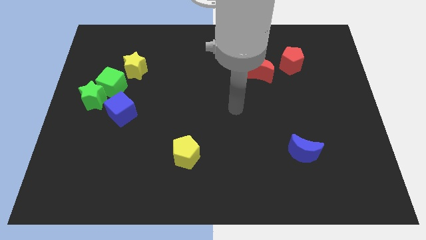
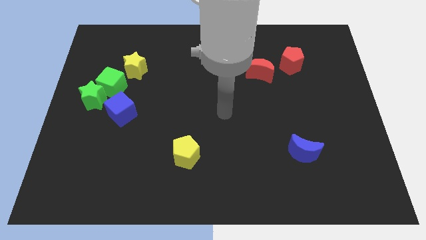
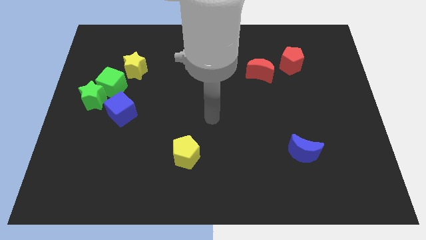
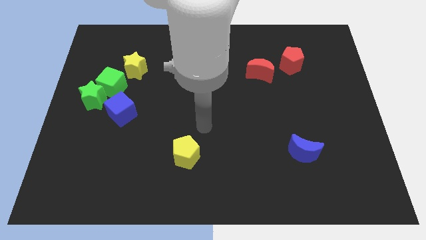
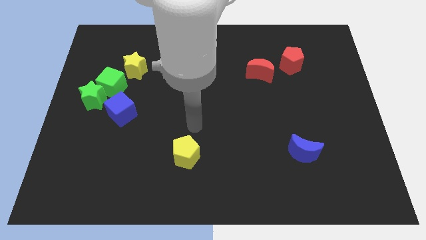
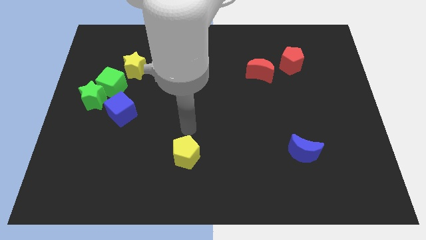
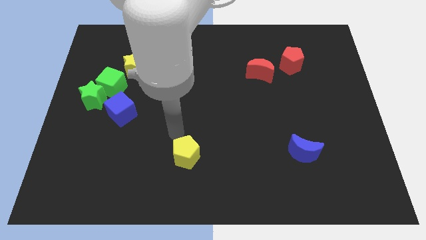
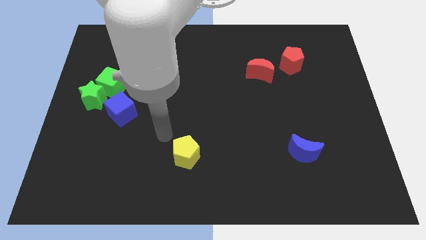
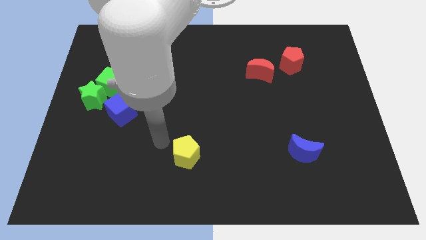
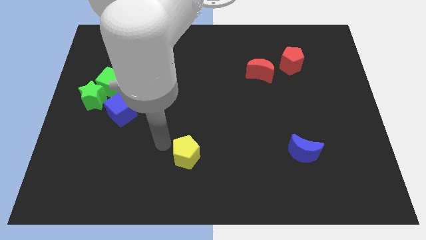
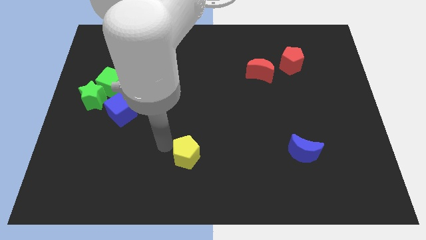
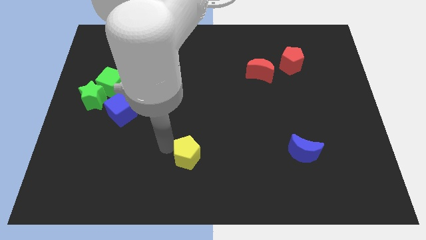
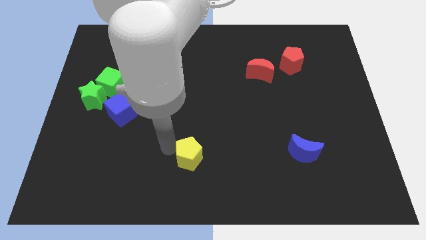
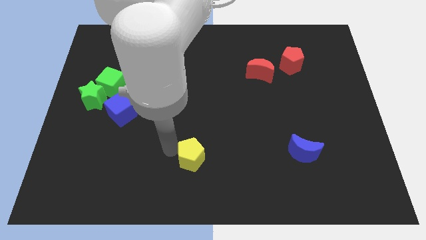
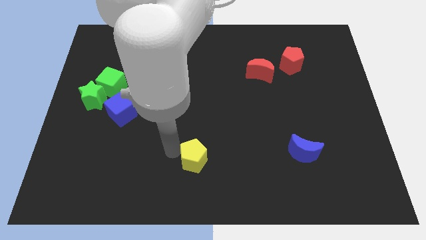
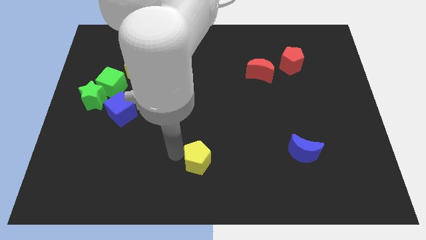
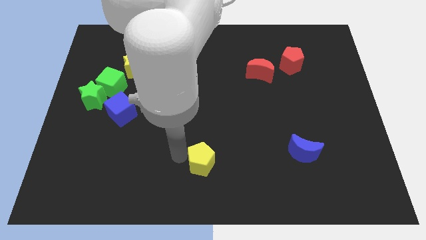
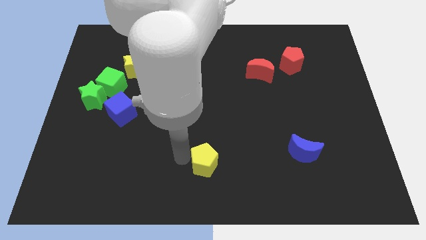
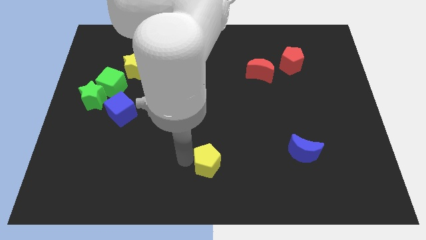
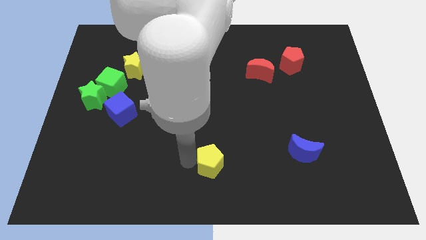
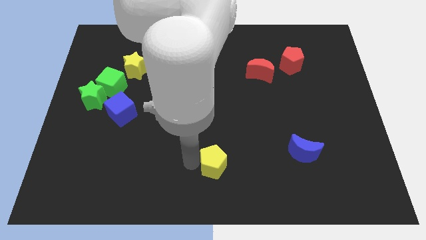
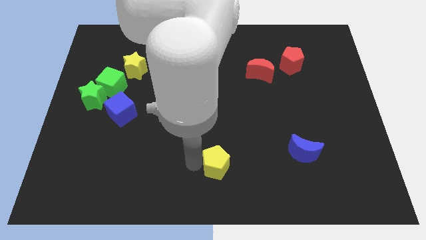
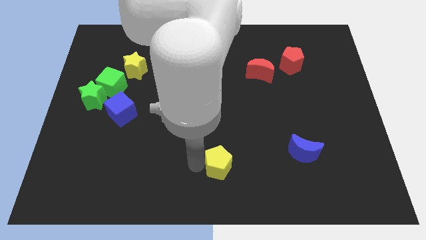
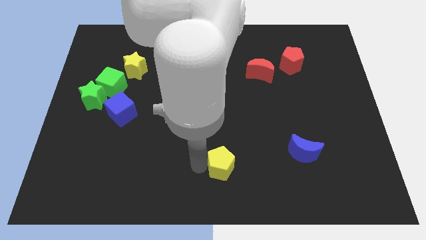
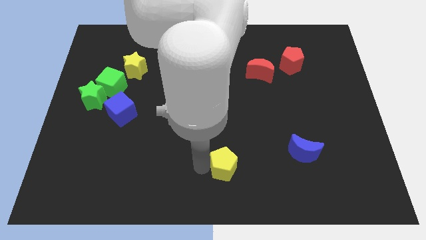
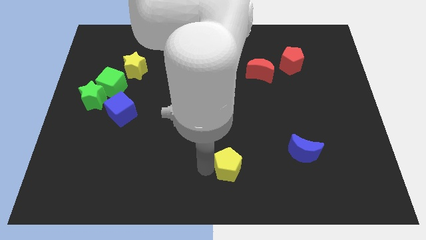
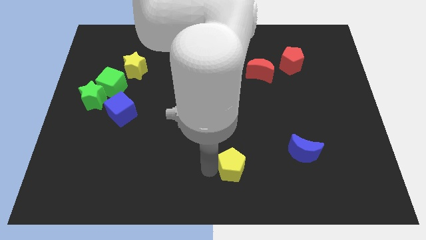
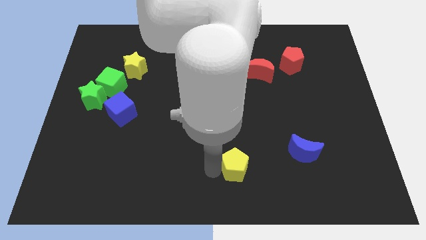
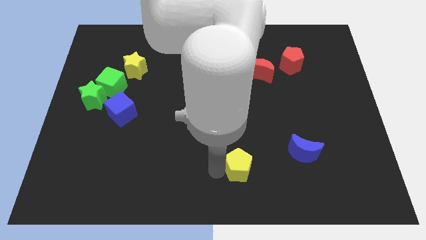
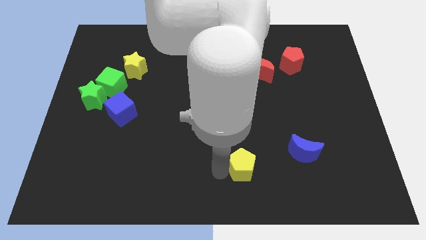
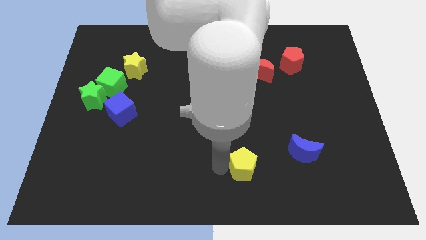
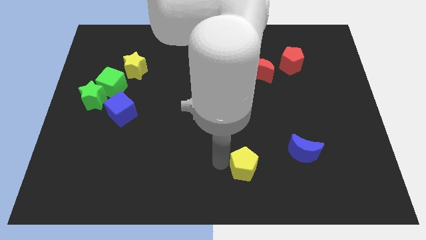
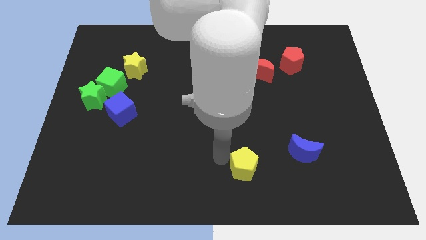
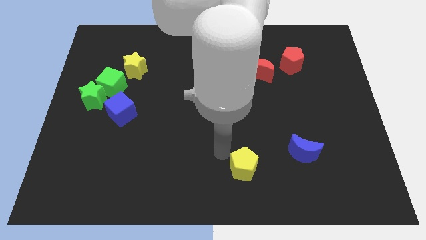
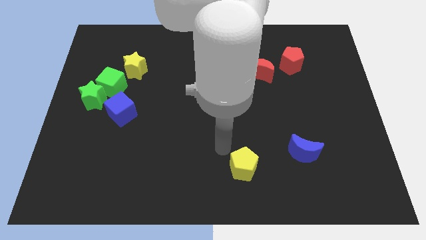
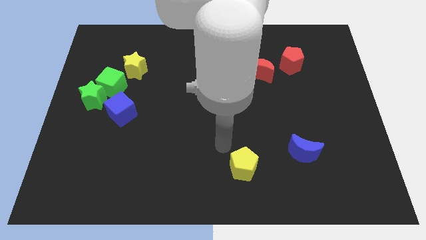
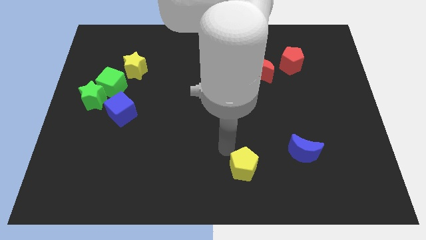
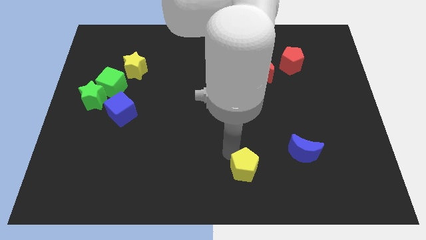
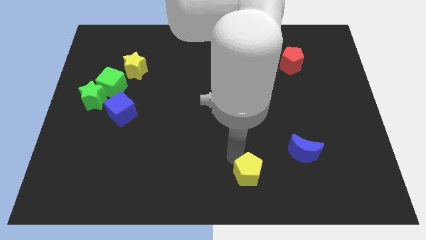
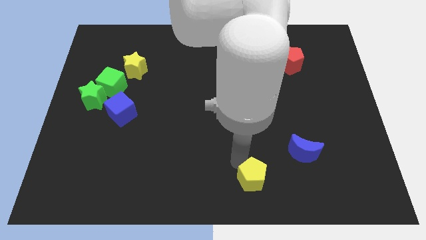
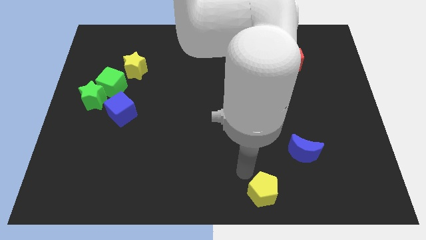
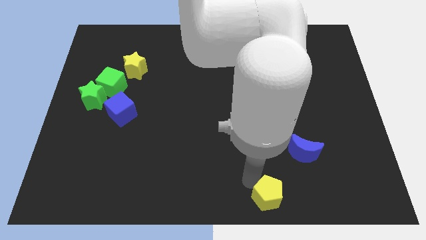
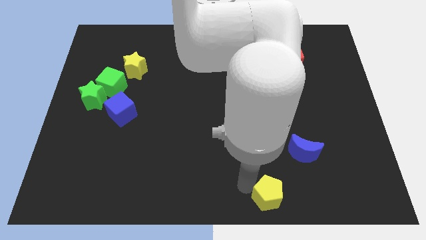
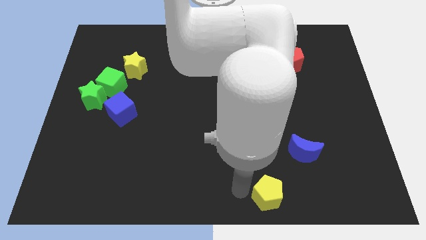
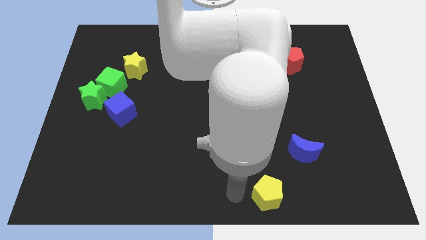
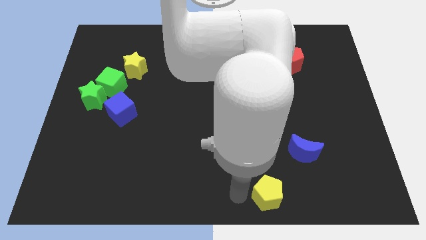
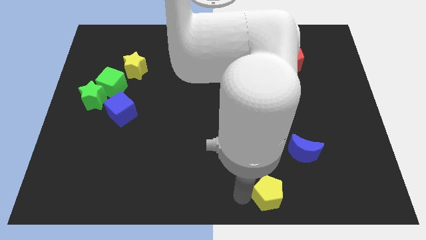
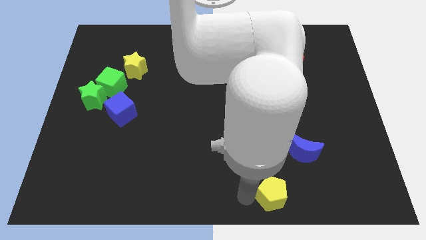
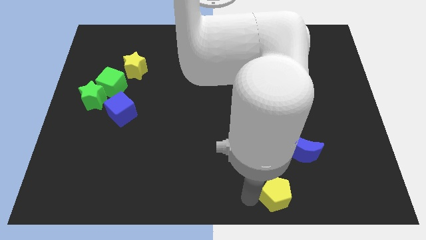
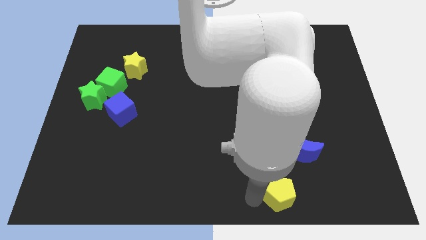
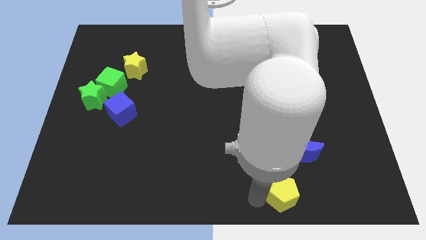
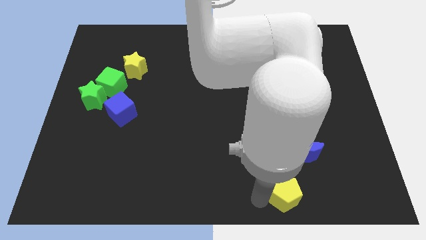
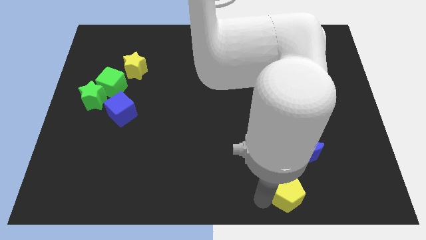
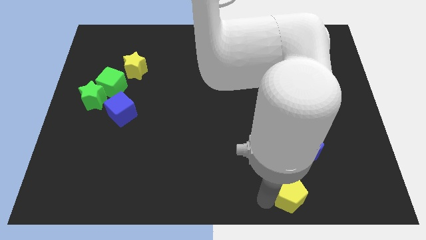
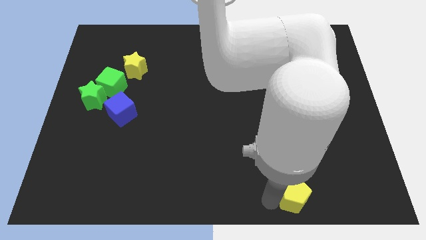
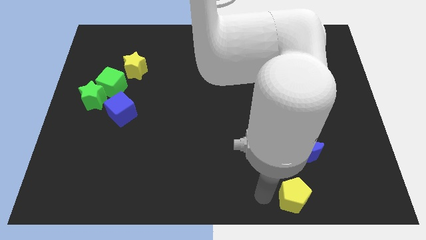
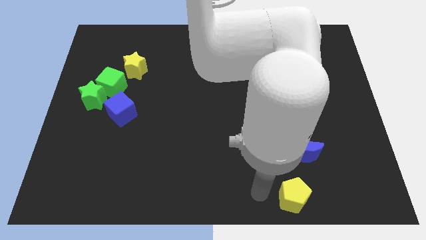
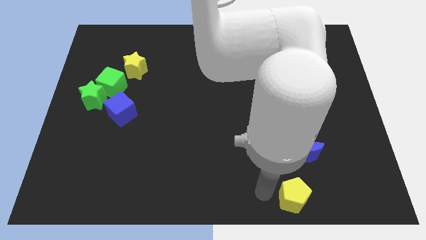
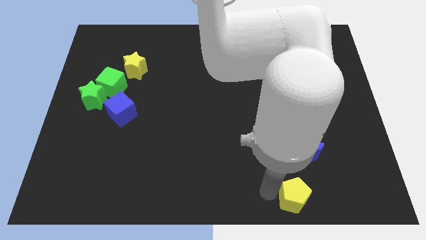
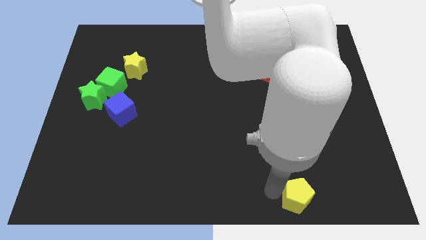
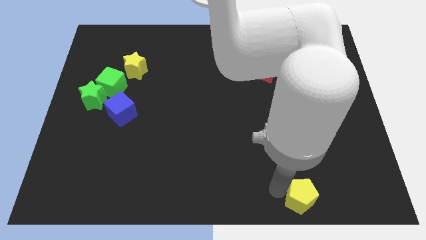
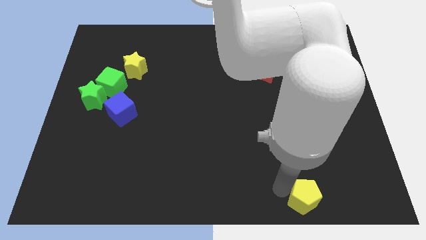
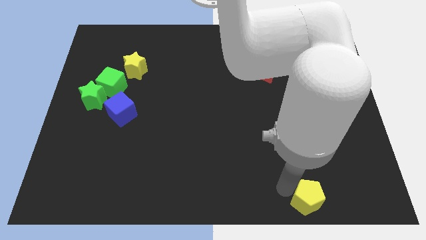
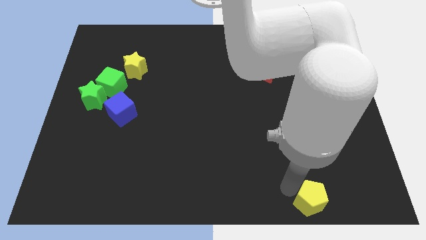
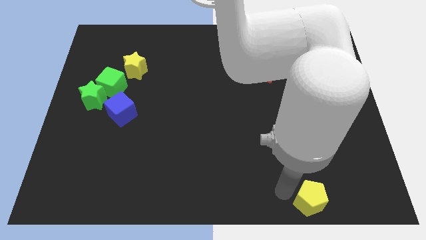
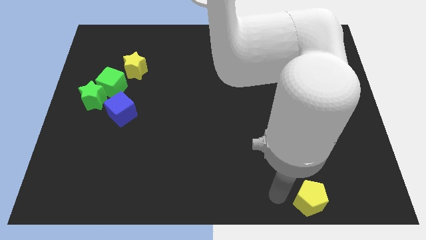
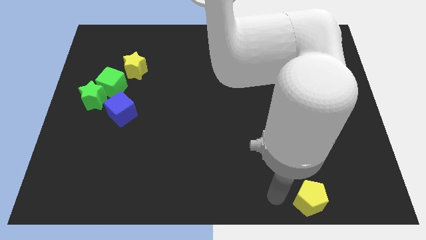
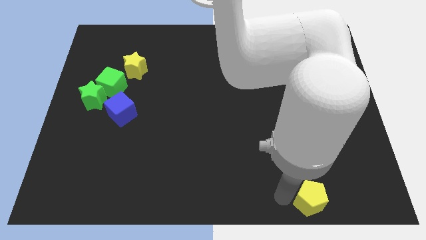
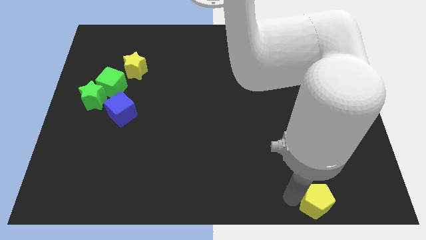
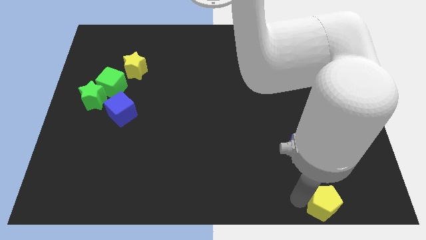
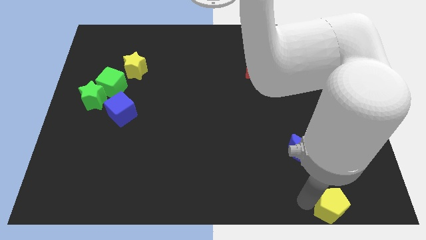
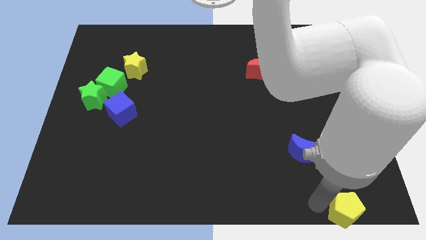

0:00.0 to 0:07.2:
put the yellow pentagon to the bottom right corner
